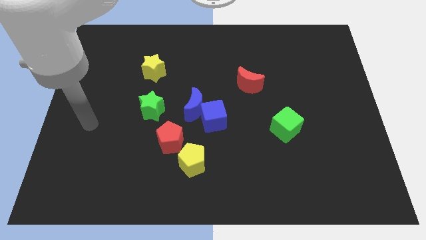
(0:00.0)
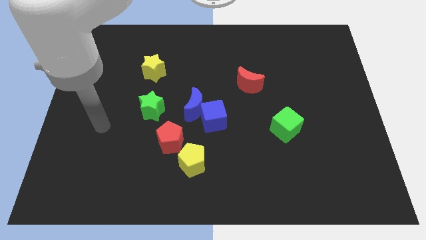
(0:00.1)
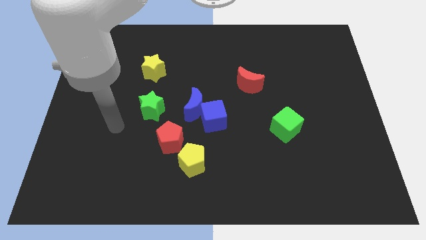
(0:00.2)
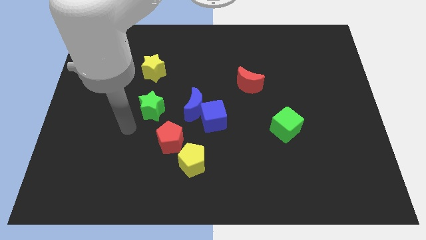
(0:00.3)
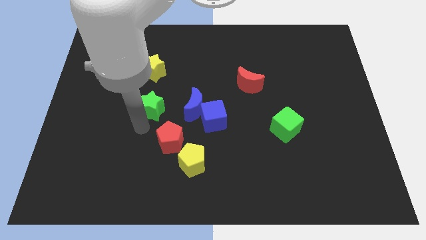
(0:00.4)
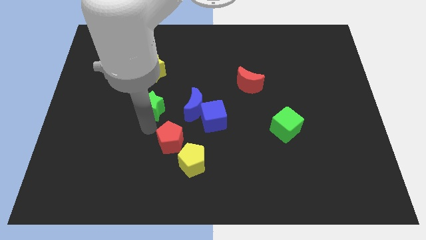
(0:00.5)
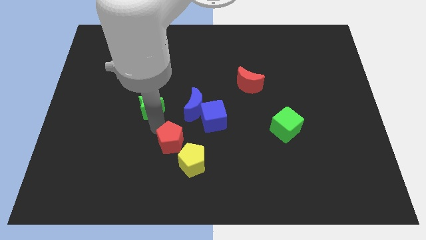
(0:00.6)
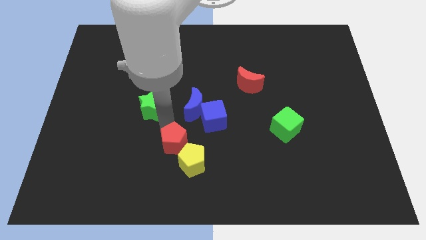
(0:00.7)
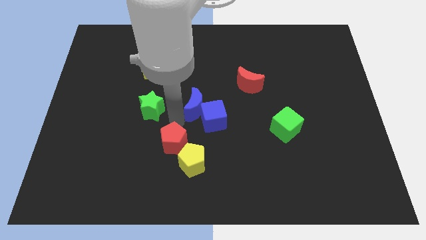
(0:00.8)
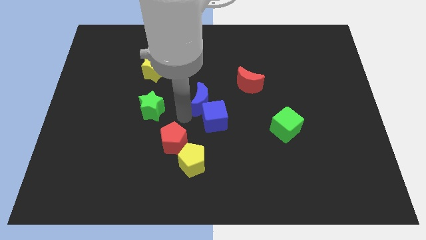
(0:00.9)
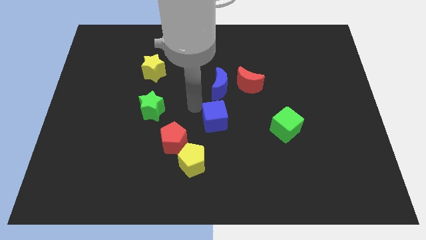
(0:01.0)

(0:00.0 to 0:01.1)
separate the blue cube from the blue moon

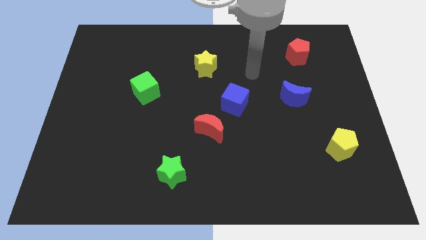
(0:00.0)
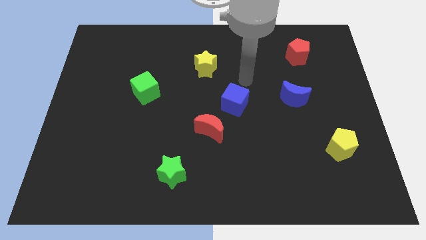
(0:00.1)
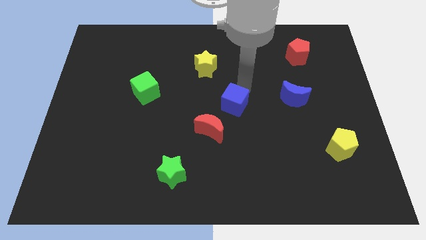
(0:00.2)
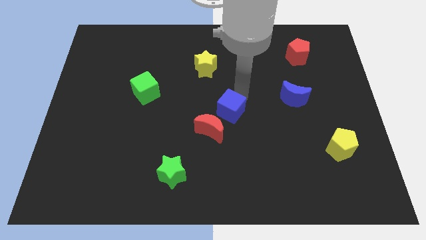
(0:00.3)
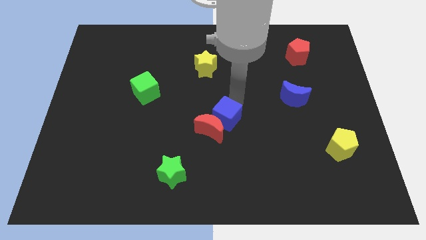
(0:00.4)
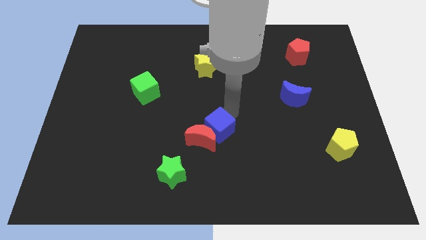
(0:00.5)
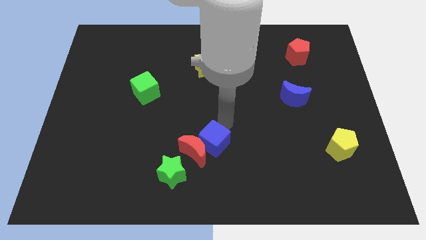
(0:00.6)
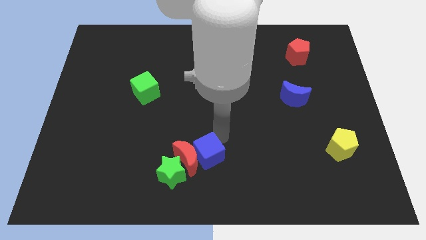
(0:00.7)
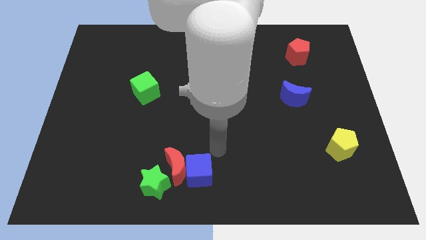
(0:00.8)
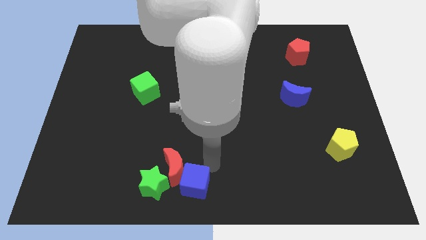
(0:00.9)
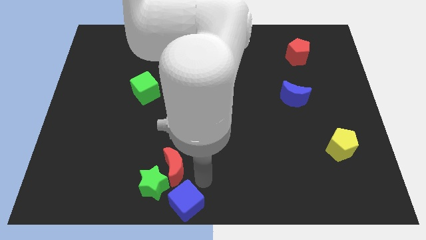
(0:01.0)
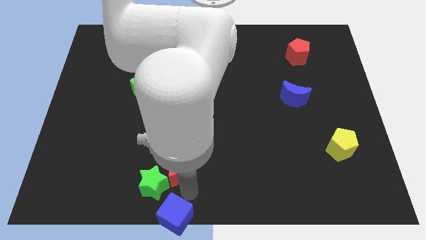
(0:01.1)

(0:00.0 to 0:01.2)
pull the red moon apart from the blue cube

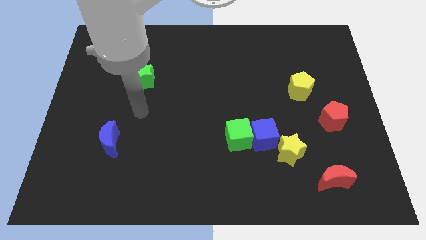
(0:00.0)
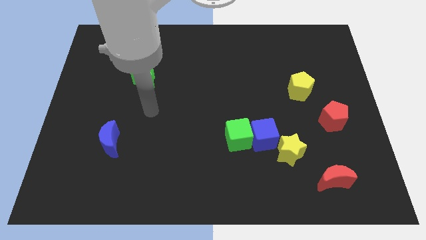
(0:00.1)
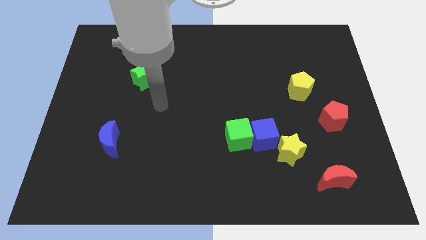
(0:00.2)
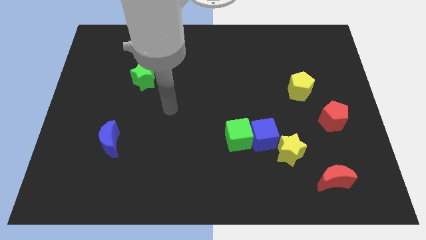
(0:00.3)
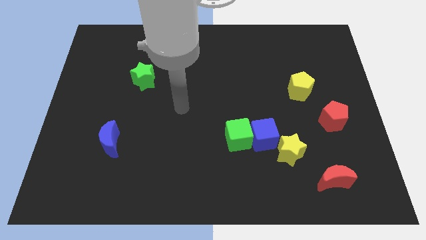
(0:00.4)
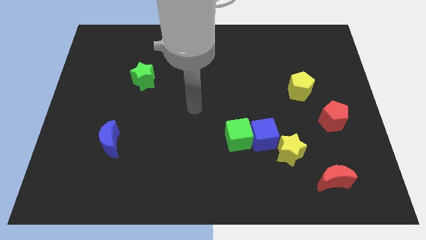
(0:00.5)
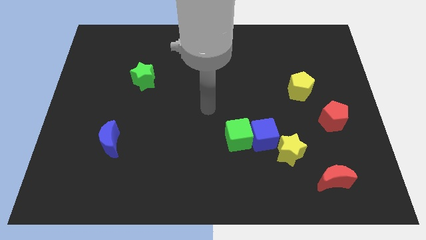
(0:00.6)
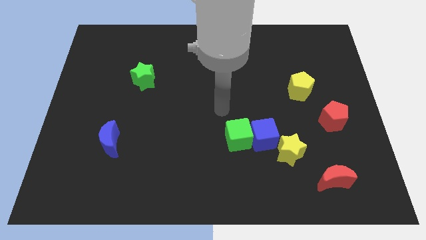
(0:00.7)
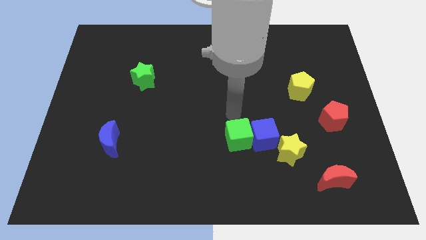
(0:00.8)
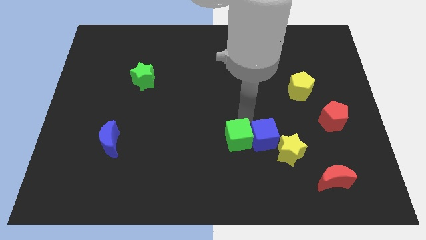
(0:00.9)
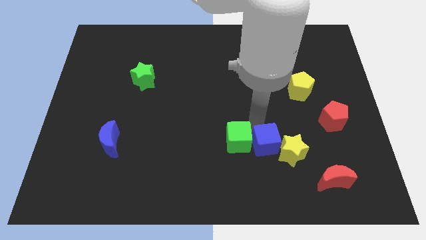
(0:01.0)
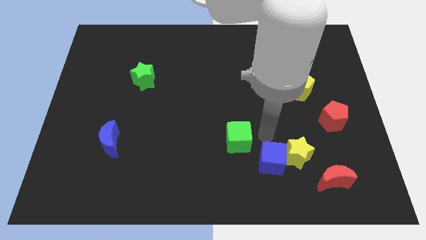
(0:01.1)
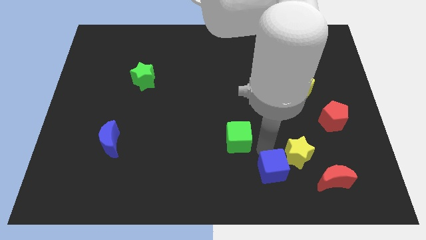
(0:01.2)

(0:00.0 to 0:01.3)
separate the green cube from the blue cube

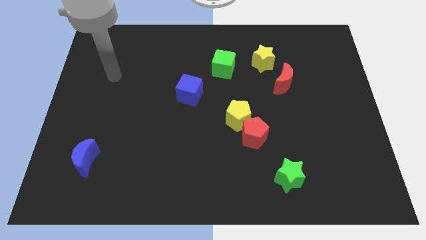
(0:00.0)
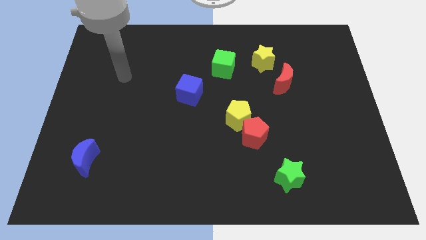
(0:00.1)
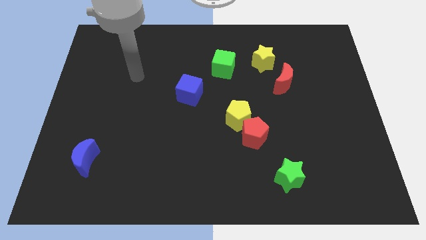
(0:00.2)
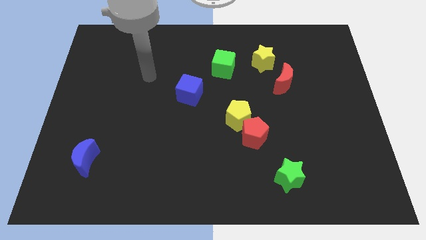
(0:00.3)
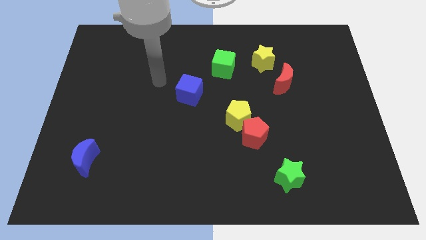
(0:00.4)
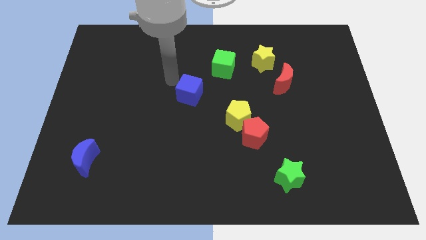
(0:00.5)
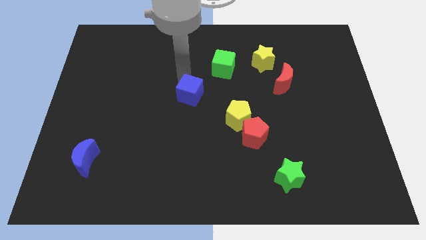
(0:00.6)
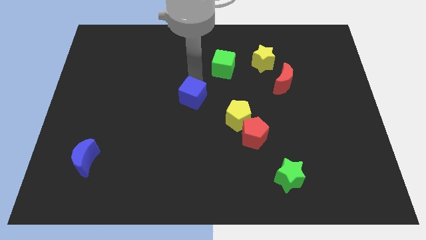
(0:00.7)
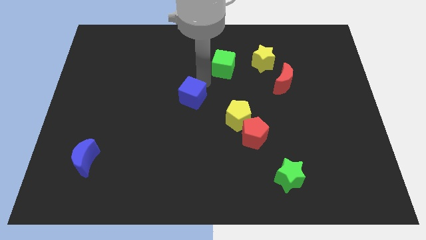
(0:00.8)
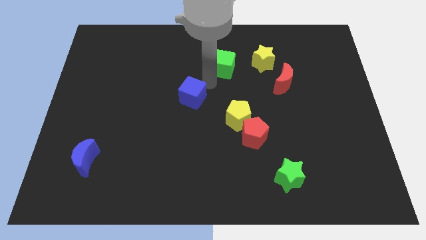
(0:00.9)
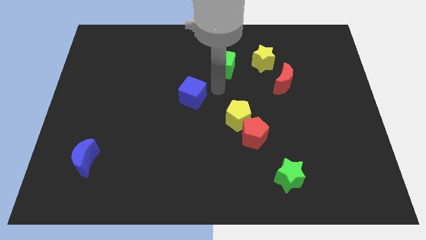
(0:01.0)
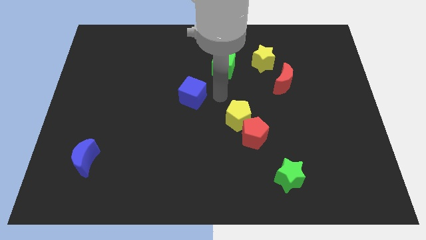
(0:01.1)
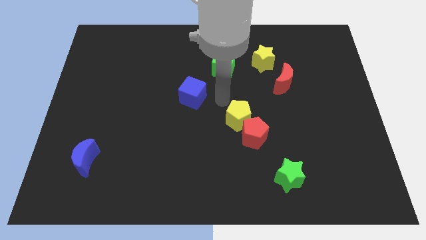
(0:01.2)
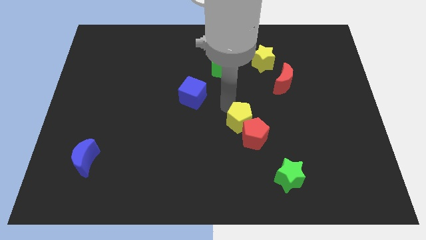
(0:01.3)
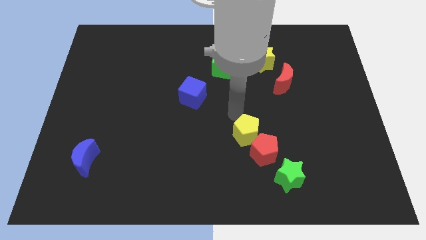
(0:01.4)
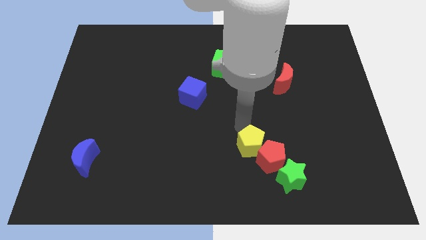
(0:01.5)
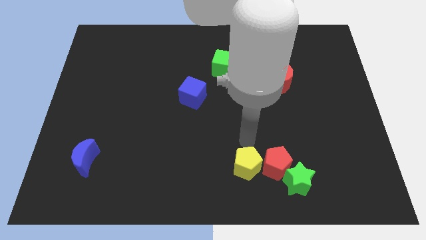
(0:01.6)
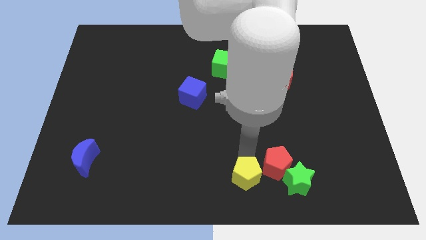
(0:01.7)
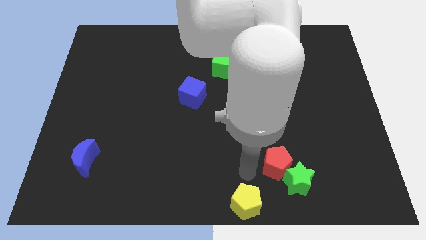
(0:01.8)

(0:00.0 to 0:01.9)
move the red pentagon away from the yellow pentagon

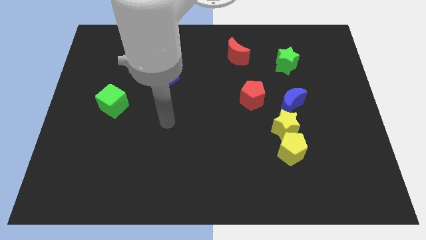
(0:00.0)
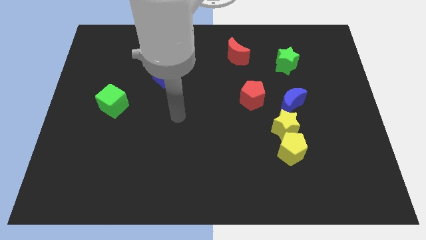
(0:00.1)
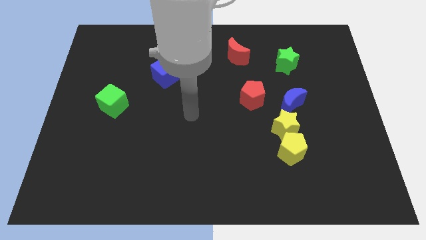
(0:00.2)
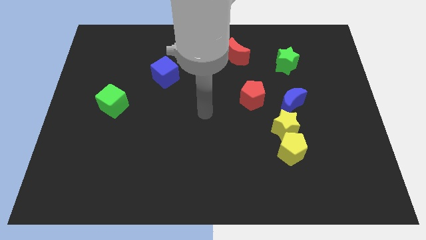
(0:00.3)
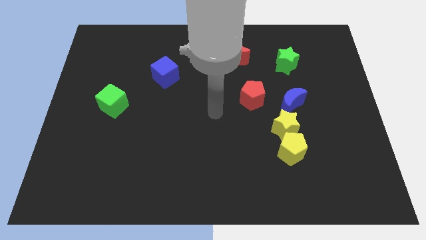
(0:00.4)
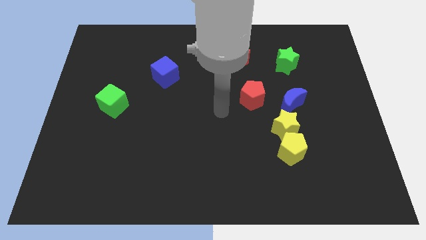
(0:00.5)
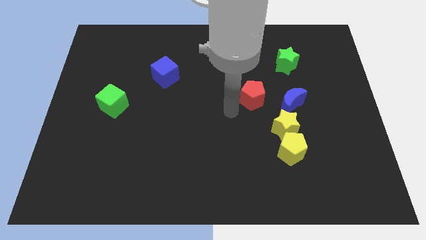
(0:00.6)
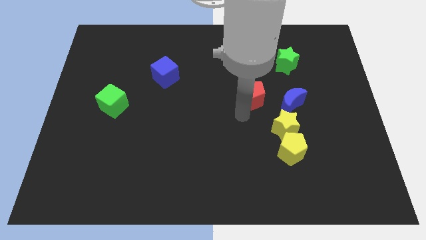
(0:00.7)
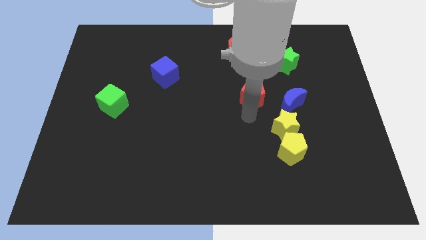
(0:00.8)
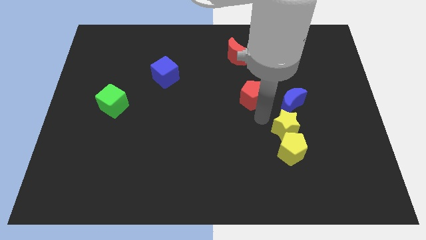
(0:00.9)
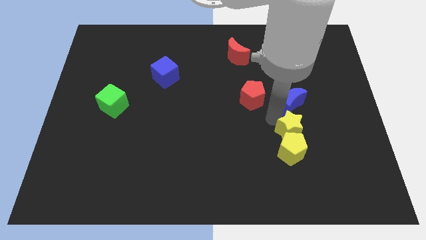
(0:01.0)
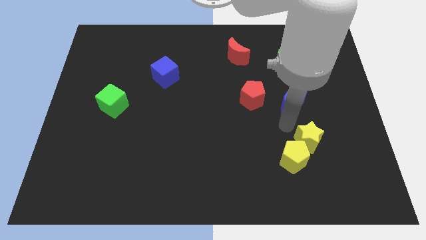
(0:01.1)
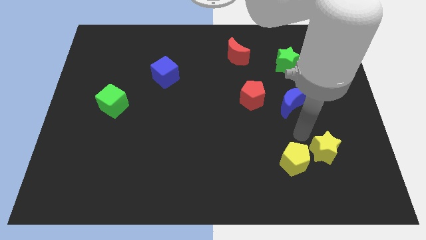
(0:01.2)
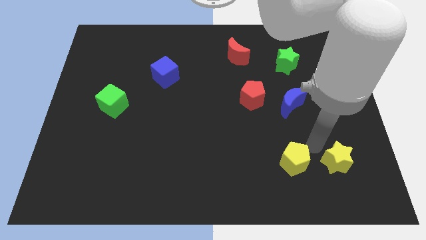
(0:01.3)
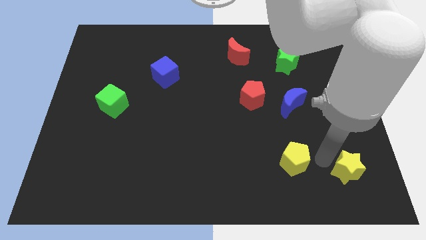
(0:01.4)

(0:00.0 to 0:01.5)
pull the yellow pentagon apart from the yellow star

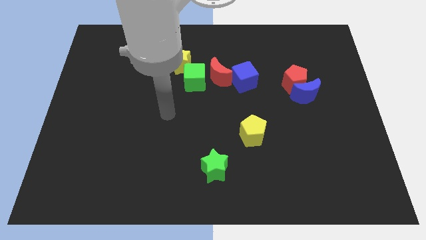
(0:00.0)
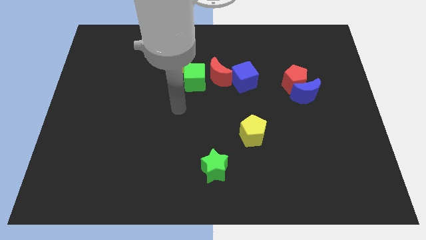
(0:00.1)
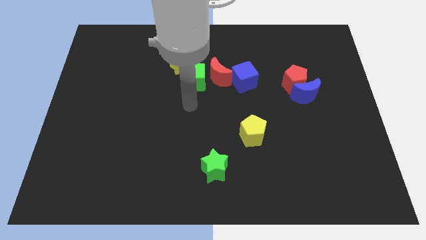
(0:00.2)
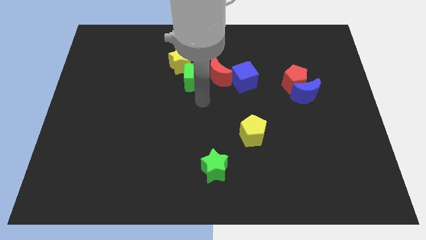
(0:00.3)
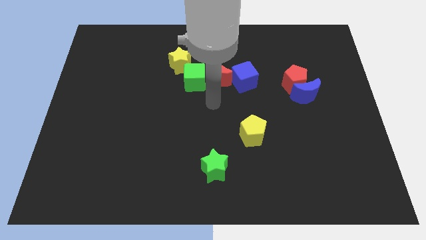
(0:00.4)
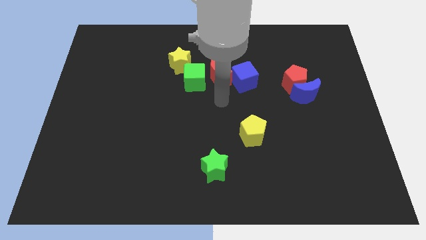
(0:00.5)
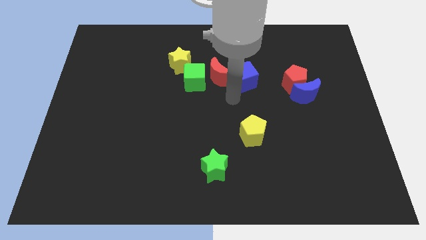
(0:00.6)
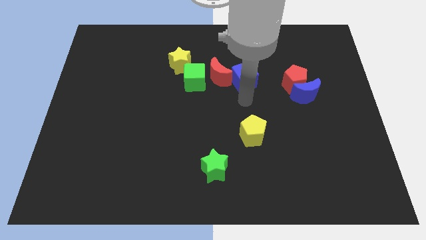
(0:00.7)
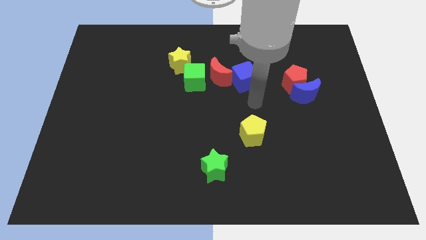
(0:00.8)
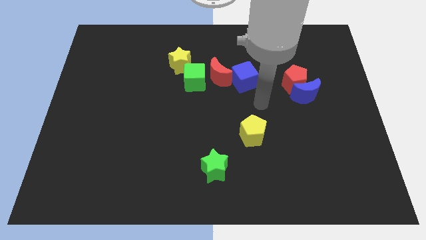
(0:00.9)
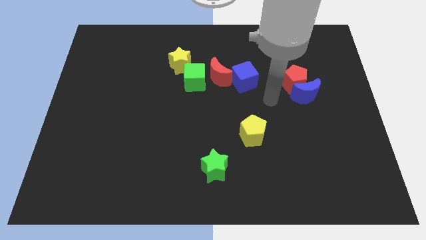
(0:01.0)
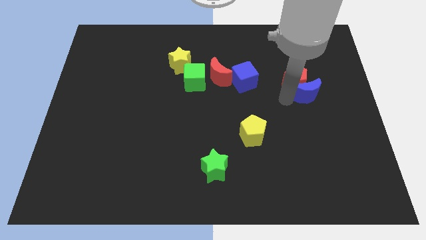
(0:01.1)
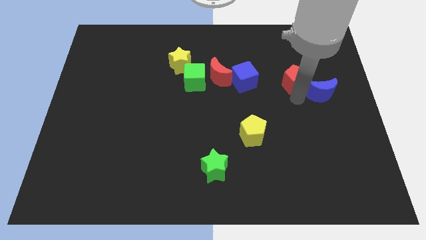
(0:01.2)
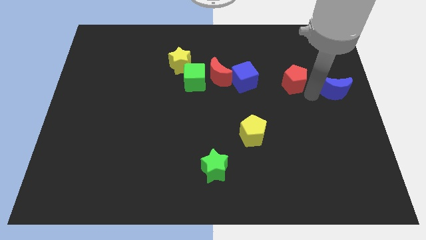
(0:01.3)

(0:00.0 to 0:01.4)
pull the red pentagon apart from the blue moon

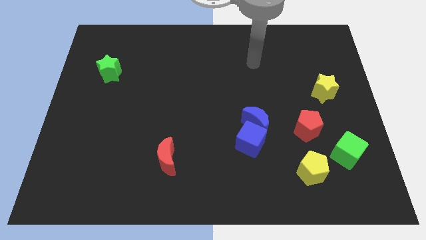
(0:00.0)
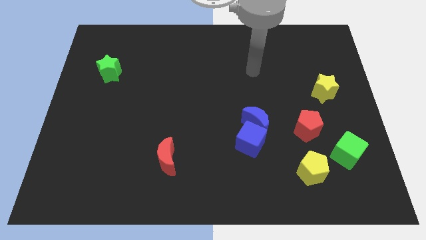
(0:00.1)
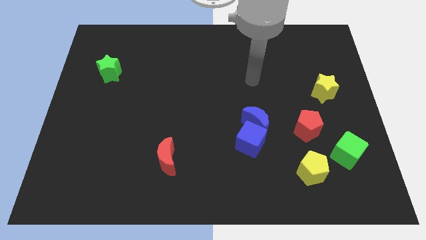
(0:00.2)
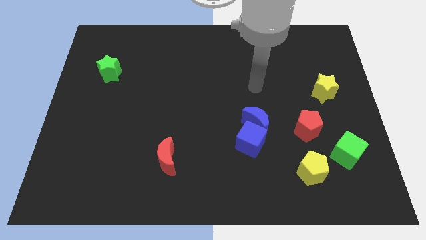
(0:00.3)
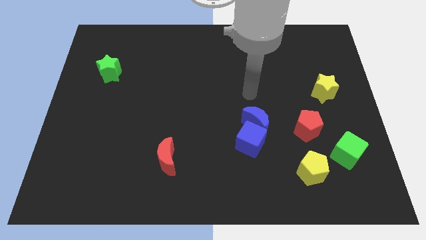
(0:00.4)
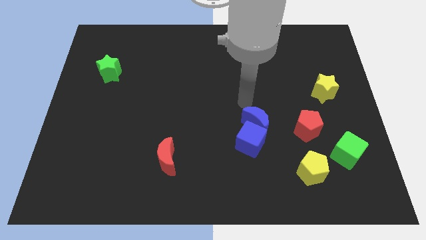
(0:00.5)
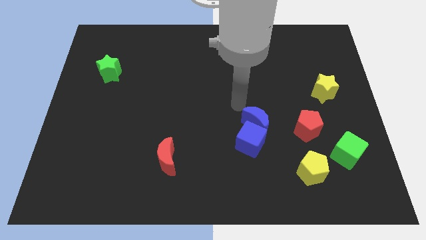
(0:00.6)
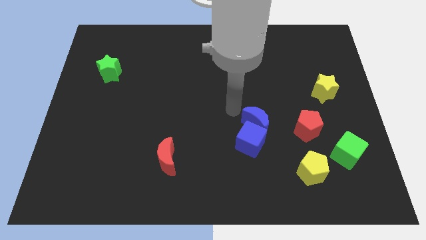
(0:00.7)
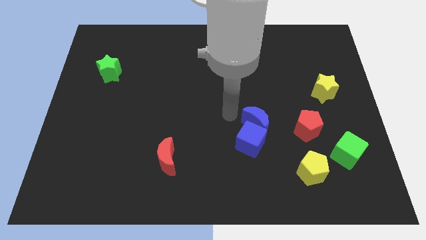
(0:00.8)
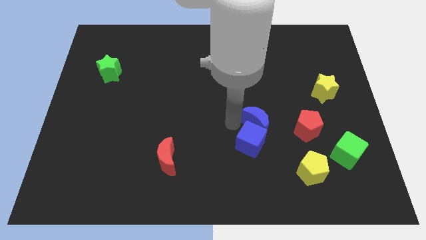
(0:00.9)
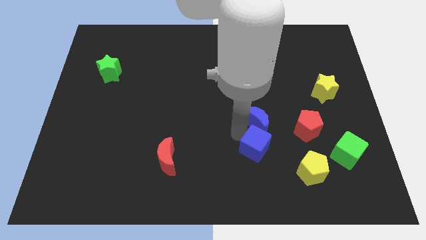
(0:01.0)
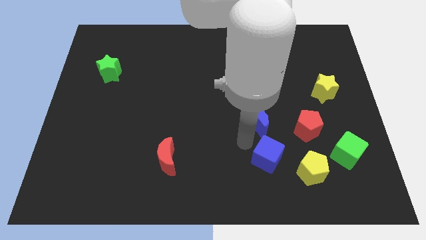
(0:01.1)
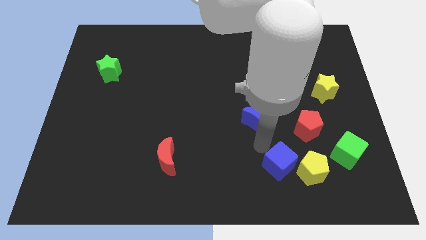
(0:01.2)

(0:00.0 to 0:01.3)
separate the blue moon from the blue cube
